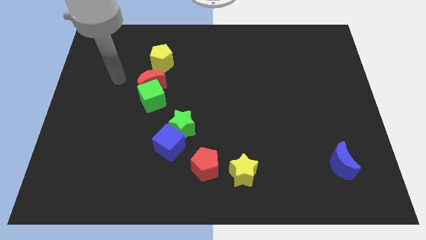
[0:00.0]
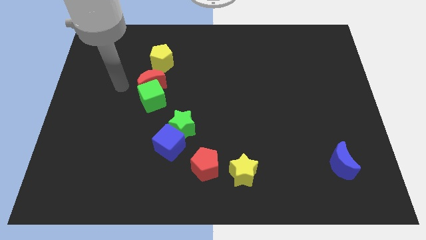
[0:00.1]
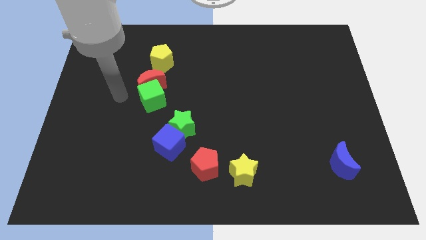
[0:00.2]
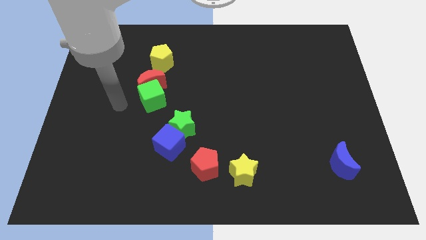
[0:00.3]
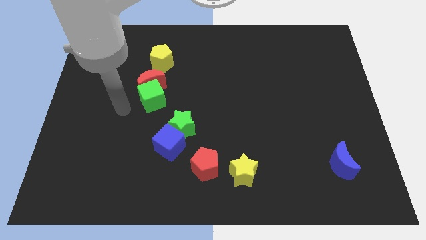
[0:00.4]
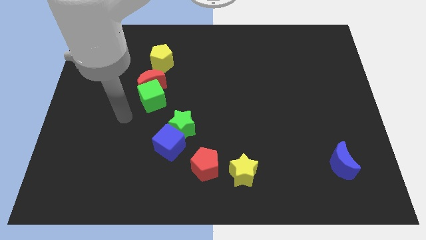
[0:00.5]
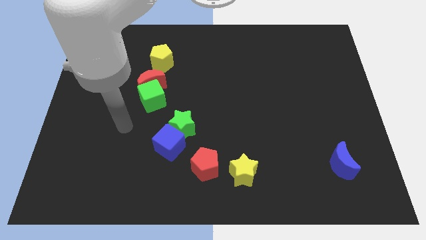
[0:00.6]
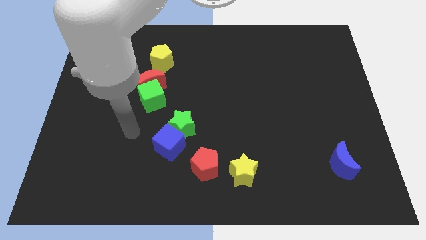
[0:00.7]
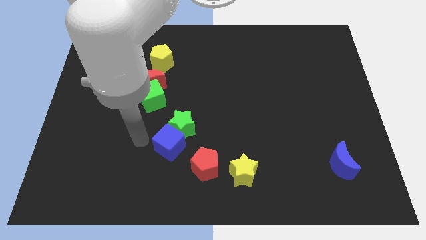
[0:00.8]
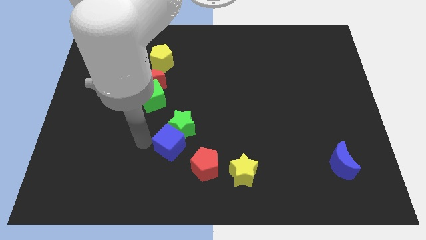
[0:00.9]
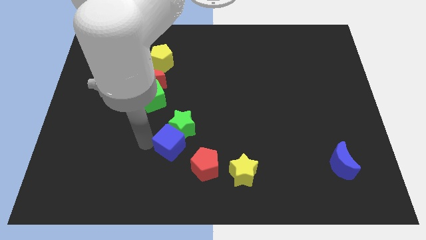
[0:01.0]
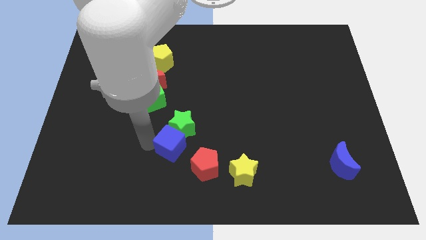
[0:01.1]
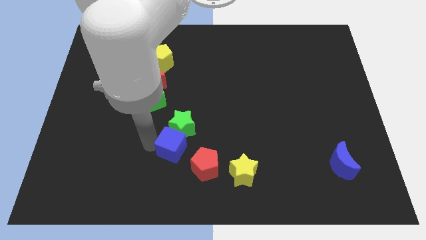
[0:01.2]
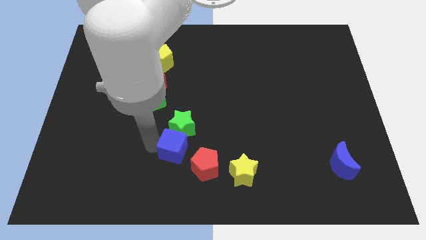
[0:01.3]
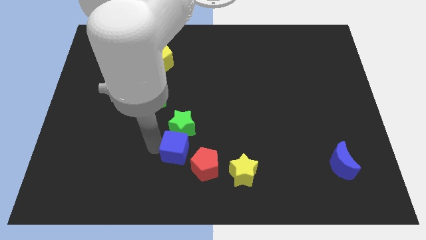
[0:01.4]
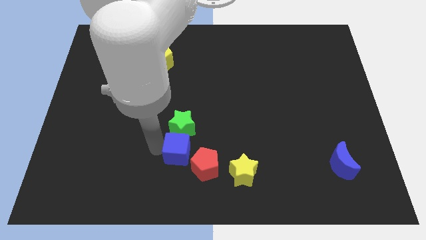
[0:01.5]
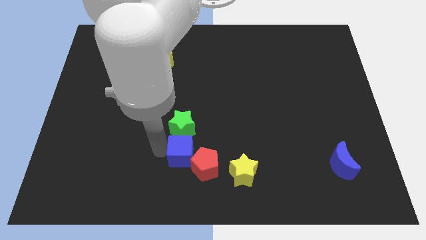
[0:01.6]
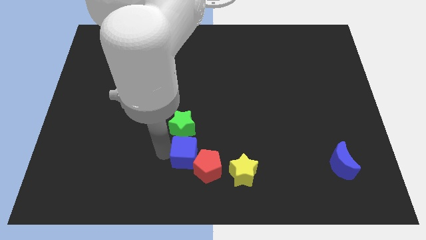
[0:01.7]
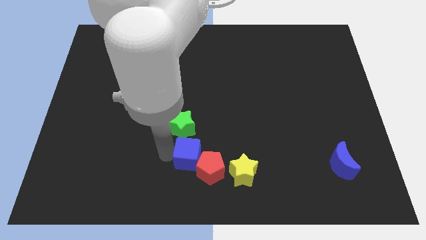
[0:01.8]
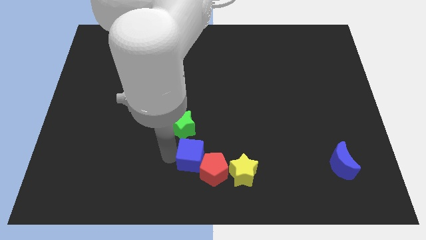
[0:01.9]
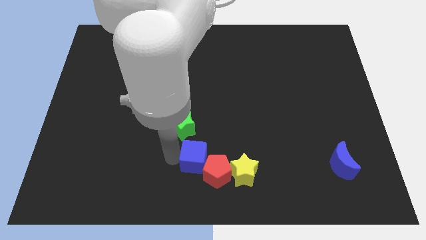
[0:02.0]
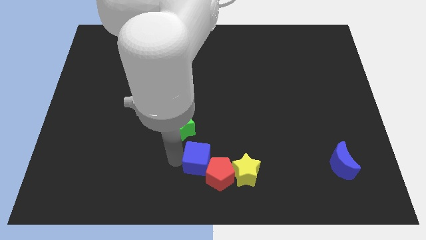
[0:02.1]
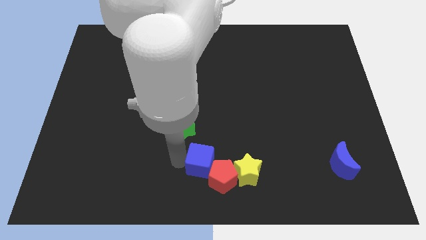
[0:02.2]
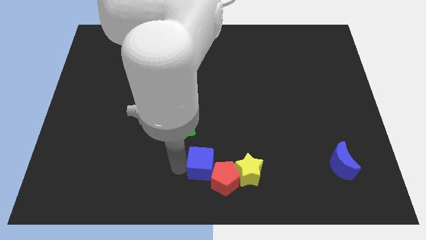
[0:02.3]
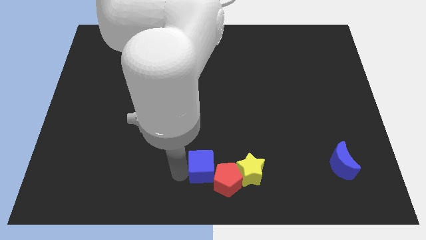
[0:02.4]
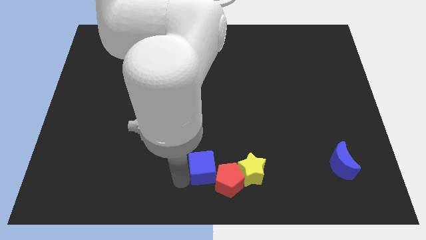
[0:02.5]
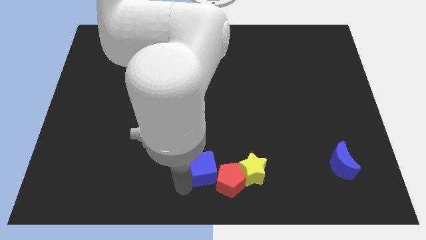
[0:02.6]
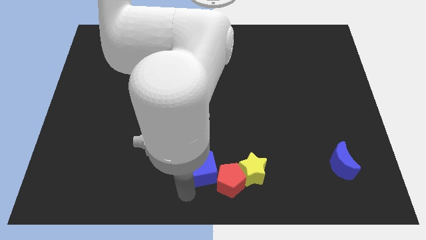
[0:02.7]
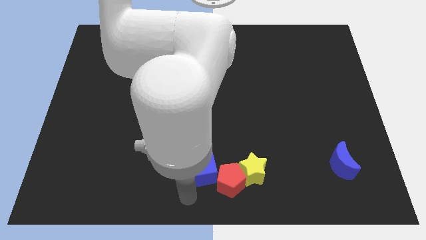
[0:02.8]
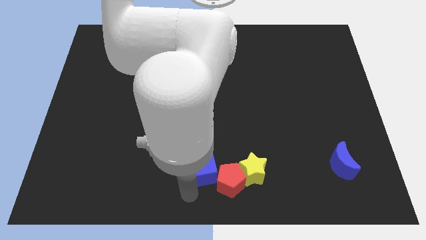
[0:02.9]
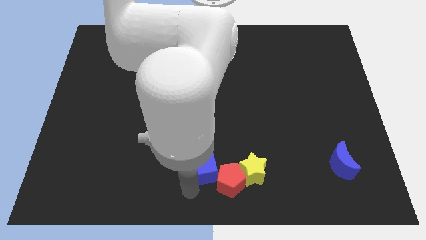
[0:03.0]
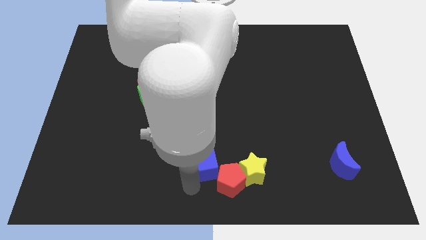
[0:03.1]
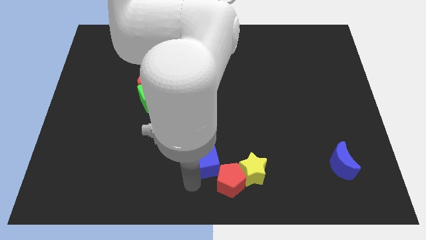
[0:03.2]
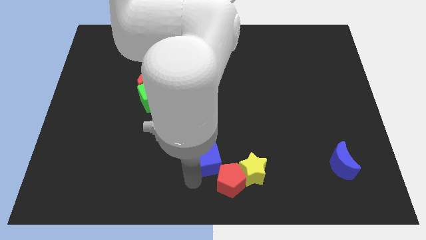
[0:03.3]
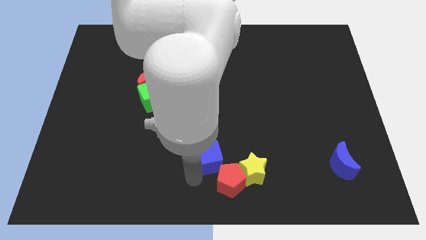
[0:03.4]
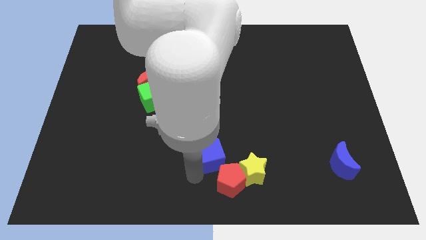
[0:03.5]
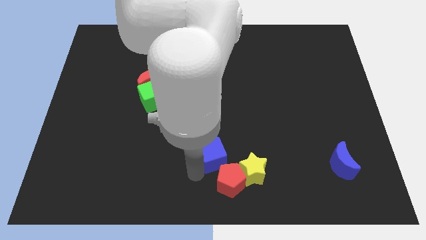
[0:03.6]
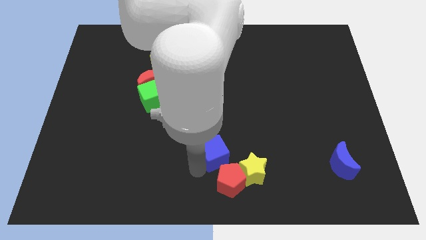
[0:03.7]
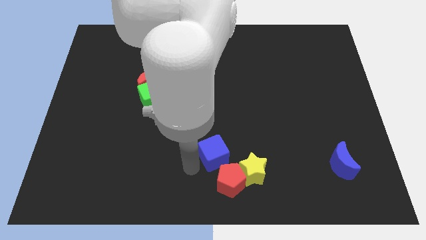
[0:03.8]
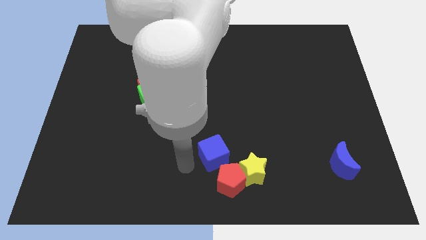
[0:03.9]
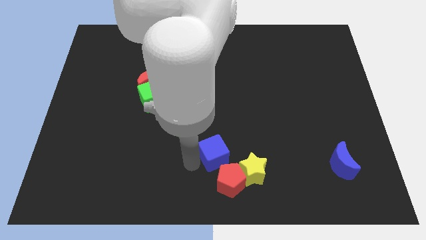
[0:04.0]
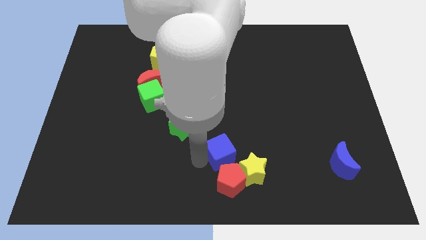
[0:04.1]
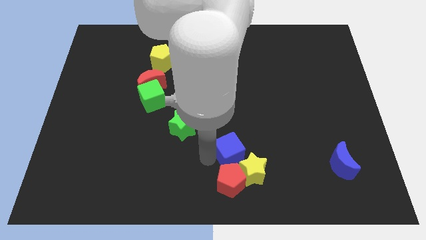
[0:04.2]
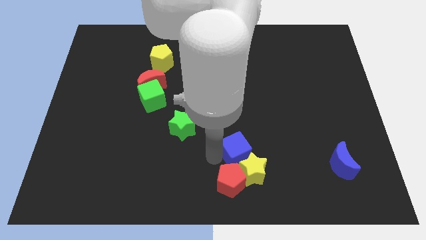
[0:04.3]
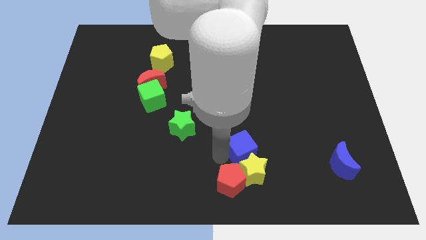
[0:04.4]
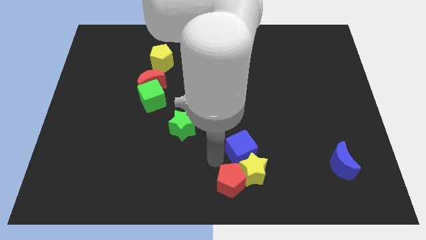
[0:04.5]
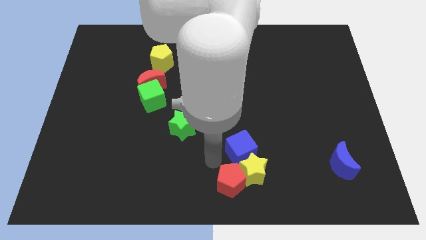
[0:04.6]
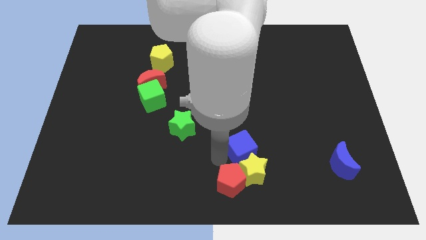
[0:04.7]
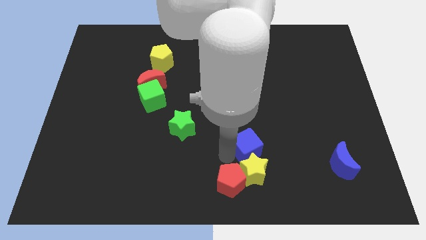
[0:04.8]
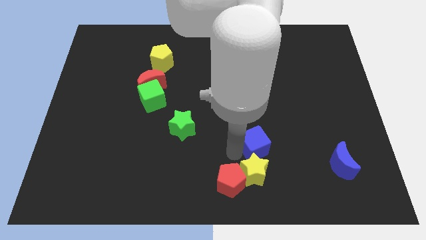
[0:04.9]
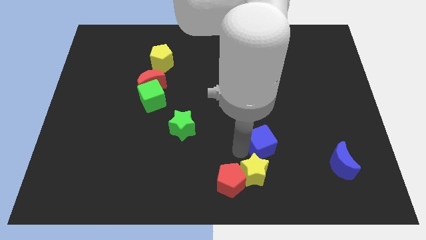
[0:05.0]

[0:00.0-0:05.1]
slide the blue cube to the right

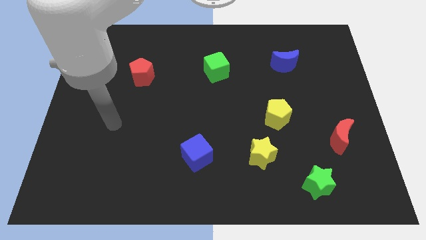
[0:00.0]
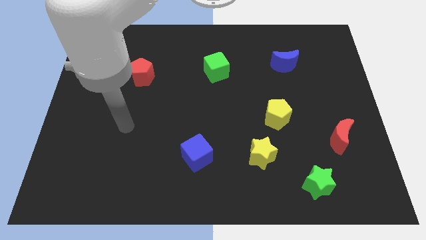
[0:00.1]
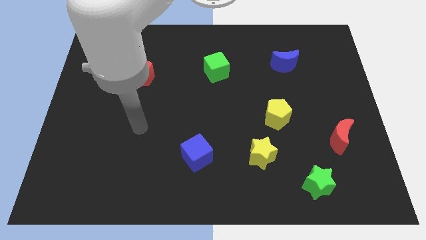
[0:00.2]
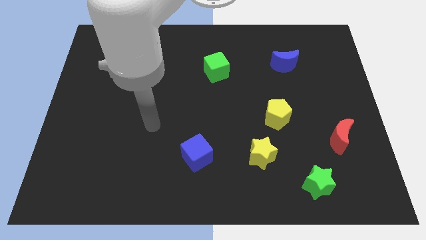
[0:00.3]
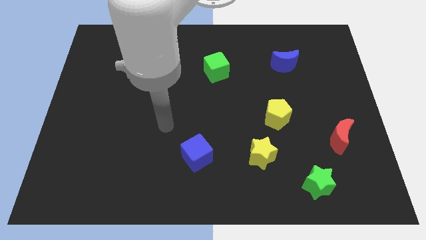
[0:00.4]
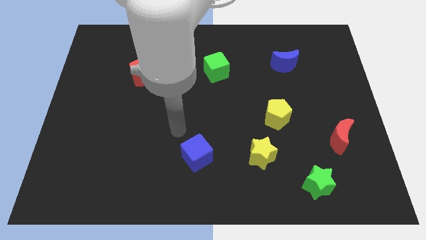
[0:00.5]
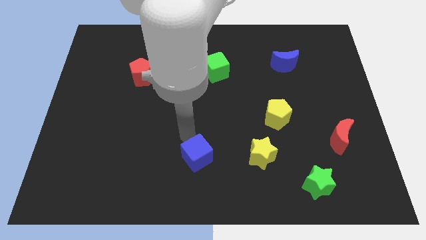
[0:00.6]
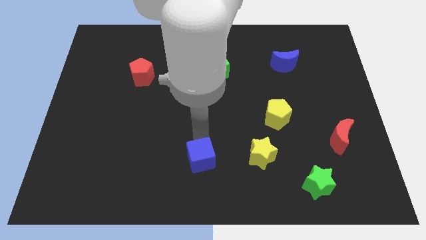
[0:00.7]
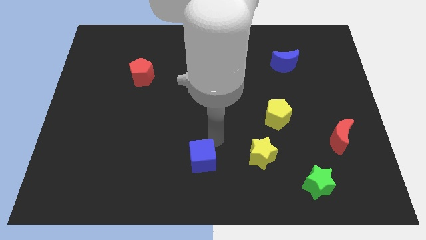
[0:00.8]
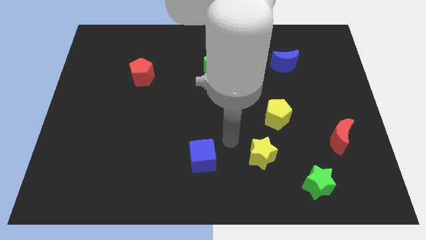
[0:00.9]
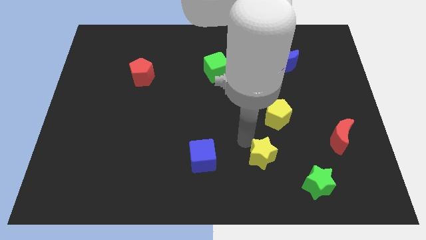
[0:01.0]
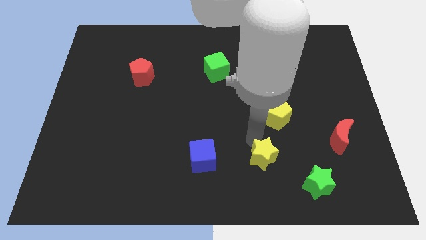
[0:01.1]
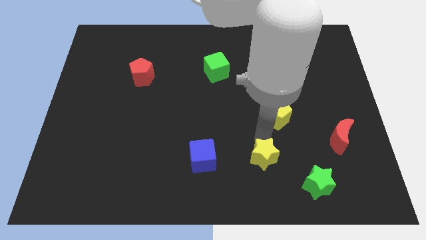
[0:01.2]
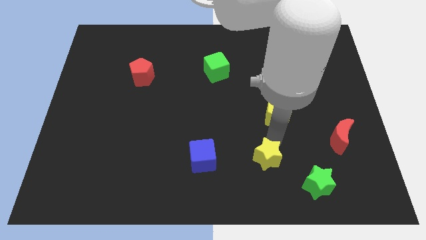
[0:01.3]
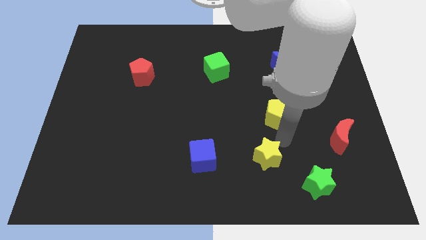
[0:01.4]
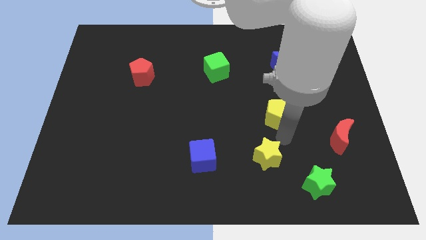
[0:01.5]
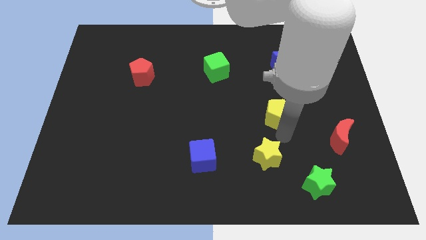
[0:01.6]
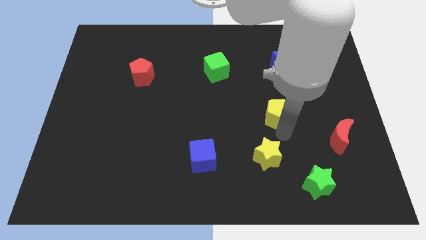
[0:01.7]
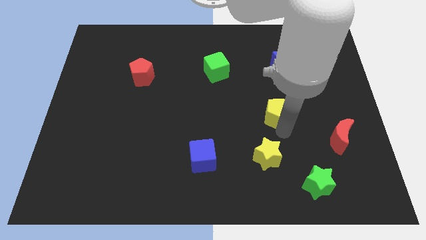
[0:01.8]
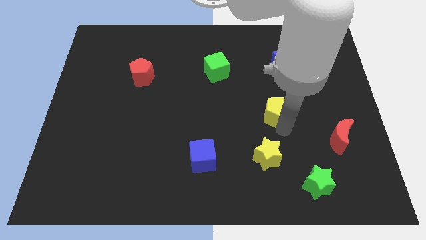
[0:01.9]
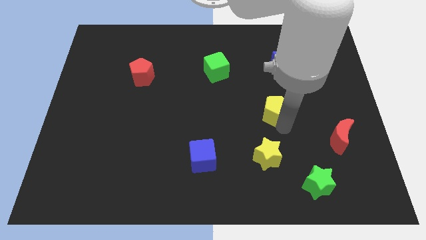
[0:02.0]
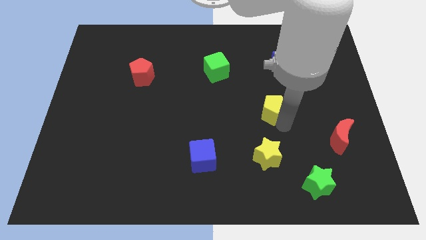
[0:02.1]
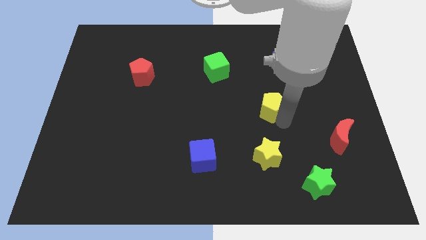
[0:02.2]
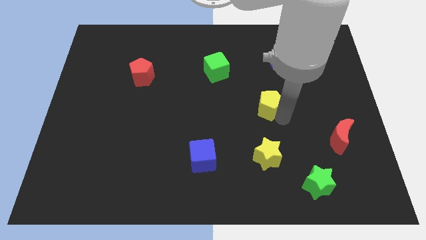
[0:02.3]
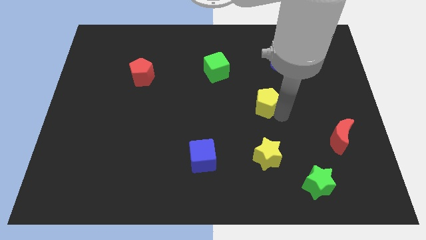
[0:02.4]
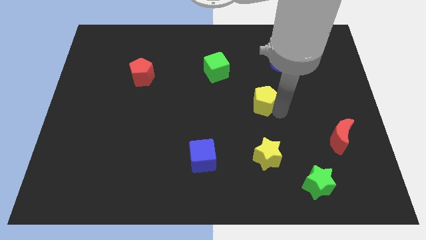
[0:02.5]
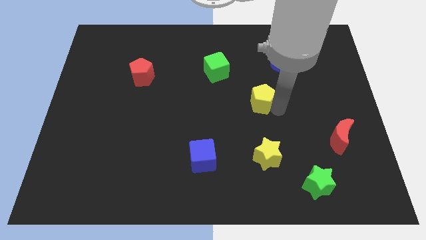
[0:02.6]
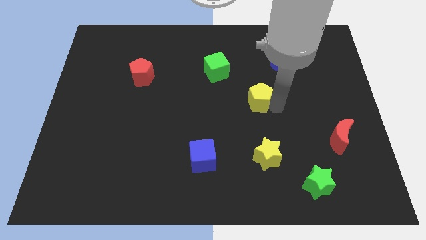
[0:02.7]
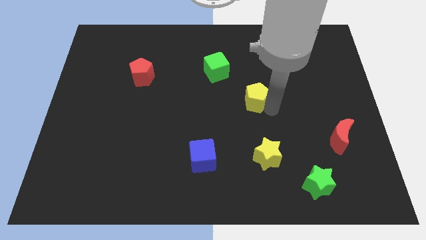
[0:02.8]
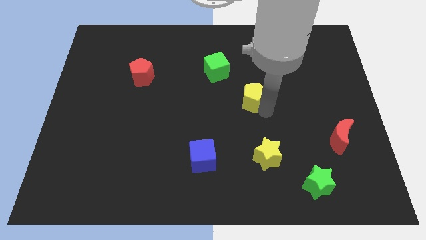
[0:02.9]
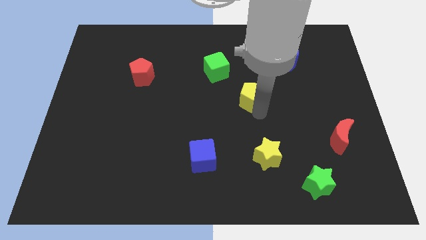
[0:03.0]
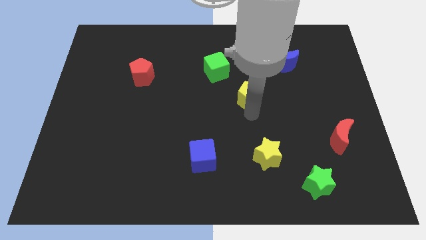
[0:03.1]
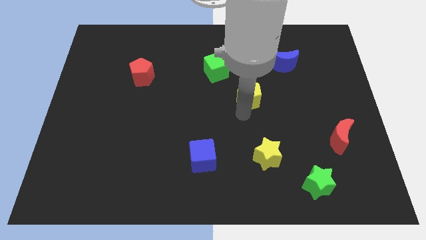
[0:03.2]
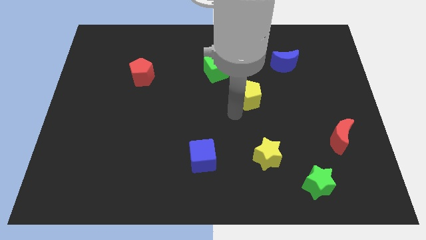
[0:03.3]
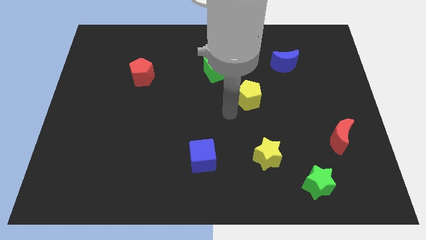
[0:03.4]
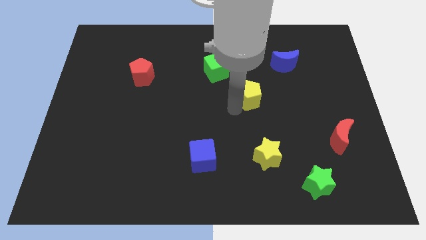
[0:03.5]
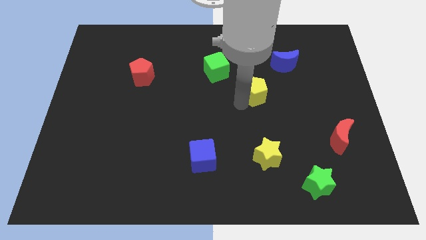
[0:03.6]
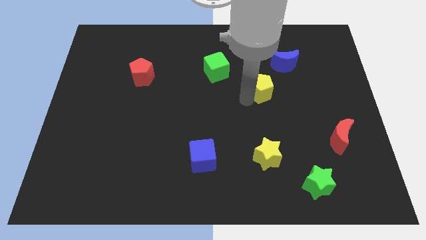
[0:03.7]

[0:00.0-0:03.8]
move the yellow pentagon up a little bit
